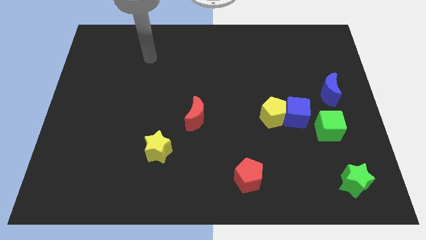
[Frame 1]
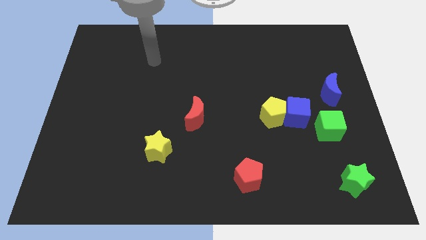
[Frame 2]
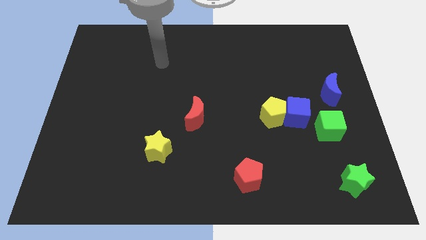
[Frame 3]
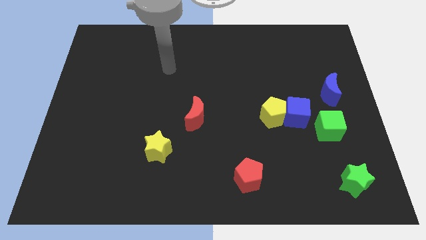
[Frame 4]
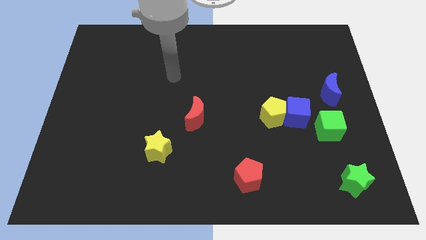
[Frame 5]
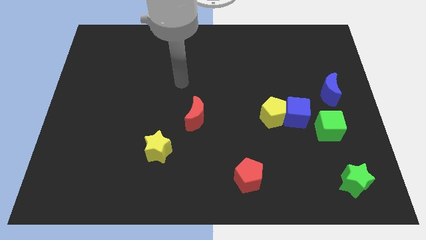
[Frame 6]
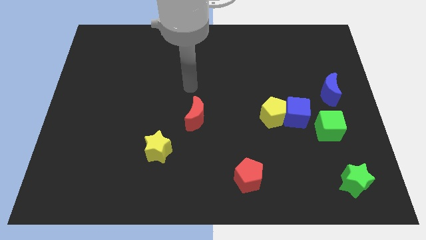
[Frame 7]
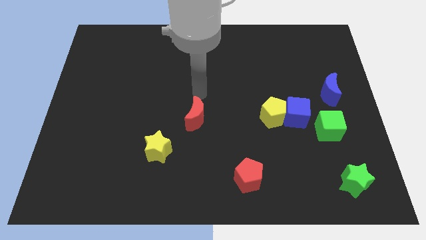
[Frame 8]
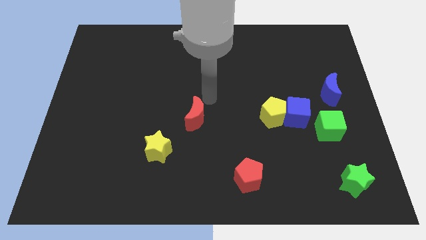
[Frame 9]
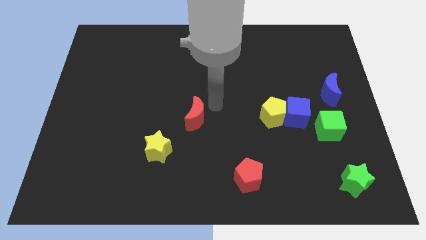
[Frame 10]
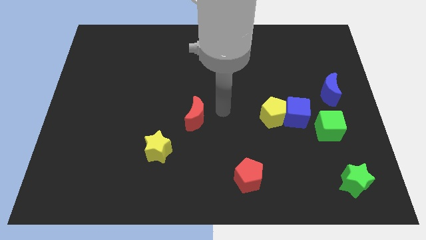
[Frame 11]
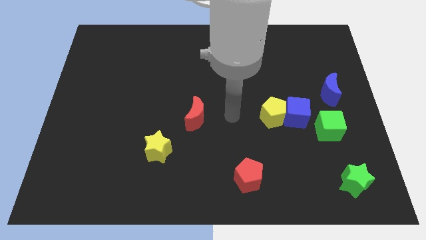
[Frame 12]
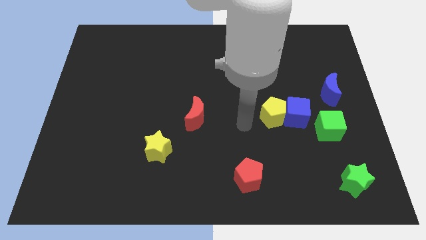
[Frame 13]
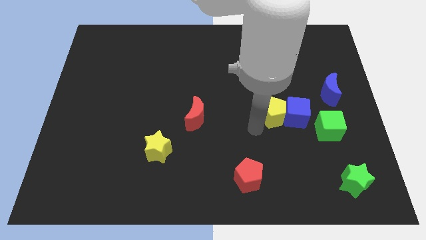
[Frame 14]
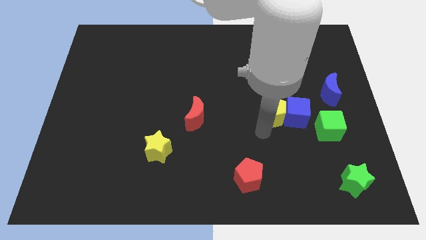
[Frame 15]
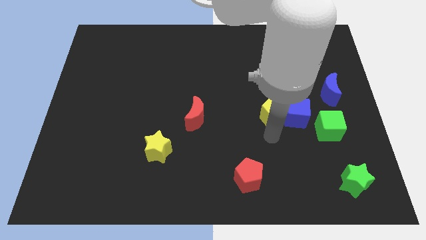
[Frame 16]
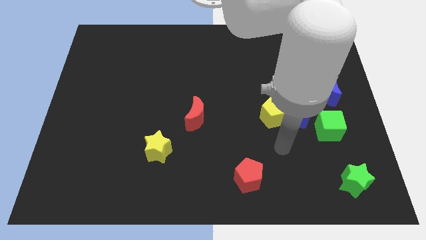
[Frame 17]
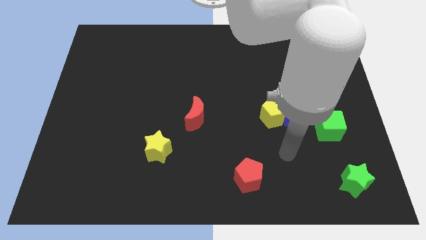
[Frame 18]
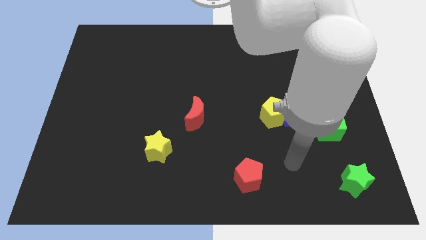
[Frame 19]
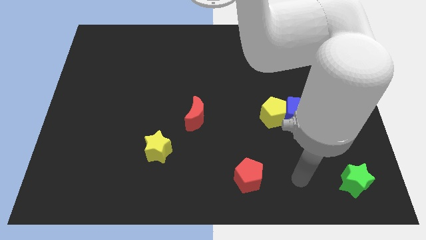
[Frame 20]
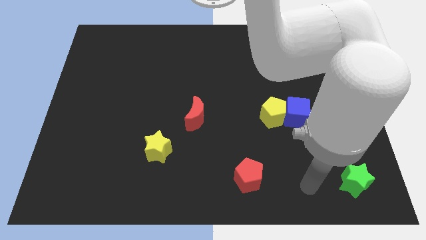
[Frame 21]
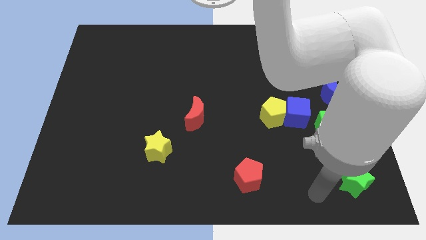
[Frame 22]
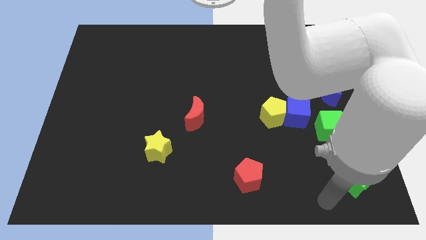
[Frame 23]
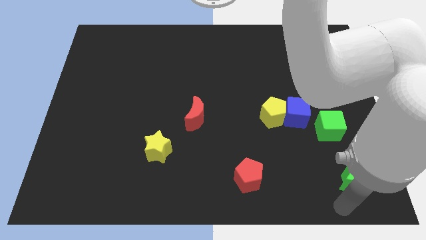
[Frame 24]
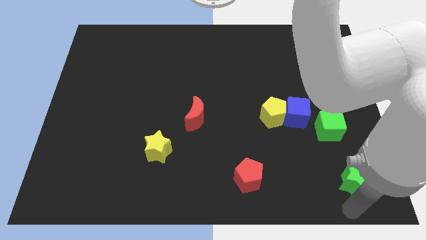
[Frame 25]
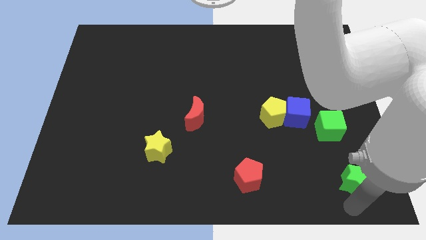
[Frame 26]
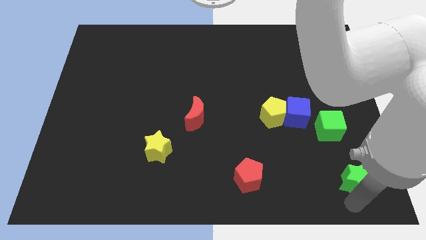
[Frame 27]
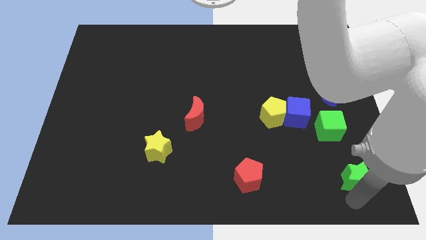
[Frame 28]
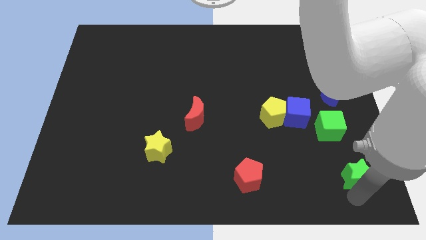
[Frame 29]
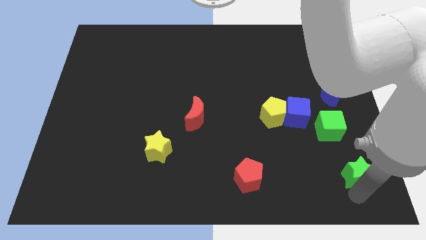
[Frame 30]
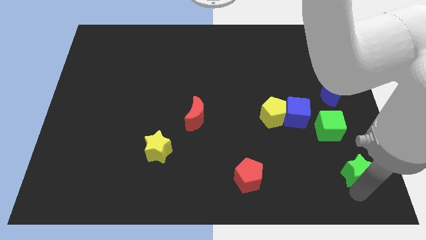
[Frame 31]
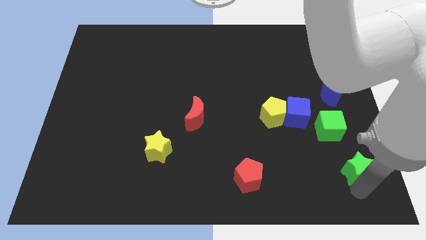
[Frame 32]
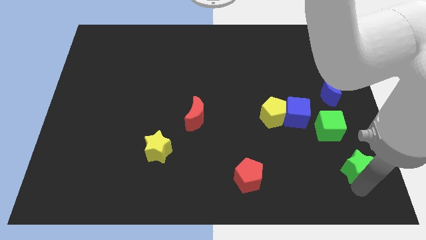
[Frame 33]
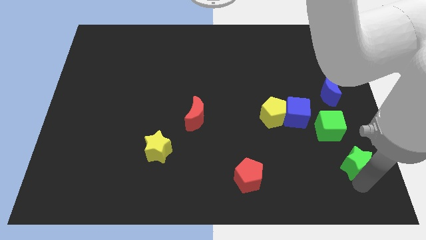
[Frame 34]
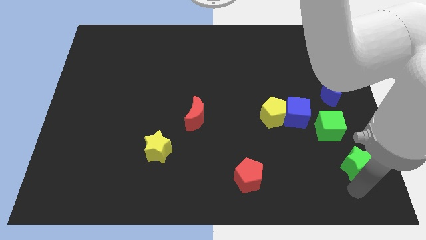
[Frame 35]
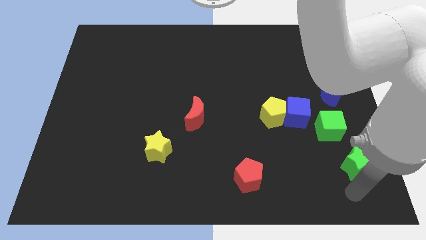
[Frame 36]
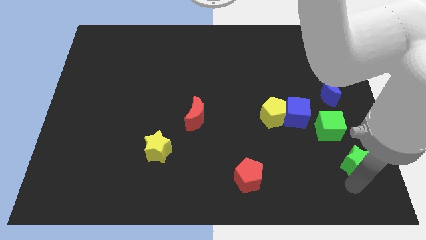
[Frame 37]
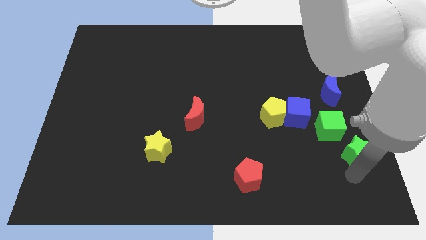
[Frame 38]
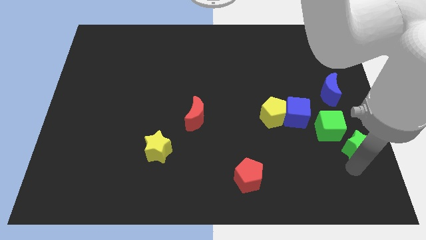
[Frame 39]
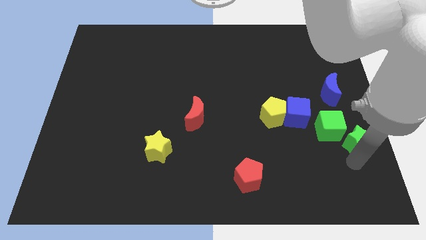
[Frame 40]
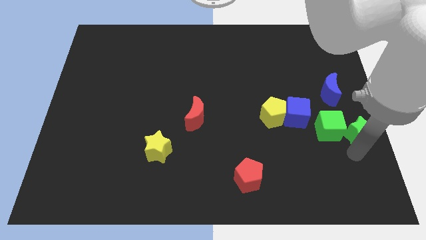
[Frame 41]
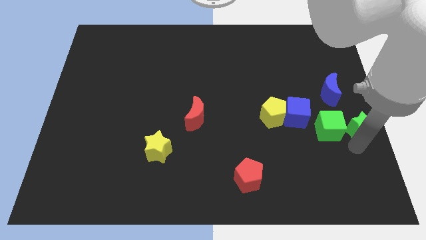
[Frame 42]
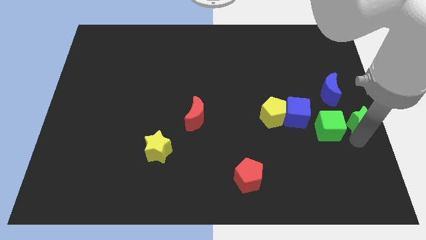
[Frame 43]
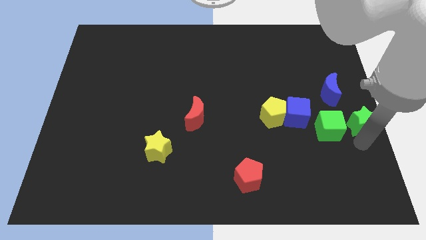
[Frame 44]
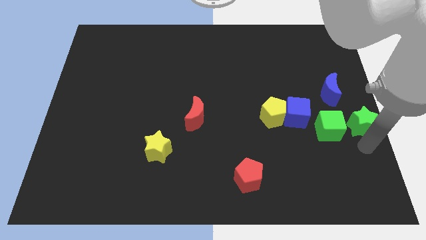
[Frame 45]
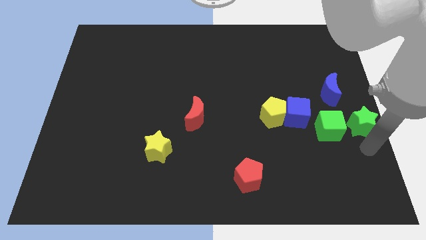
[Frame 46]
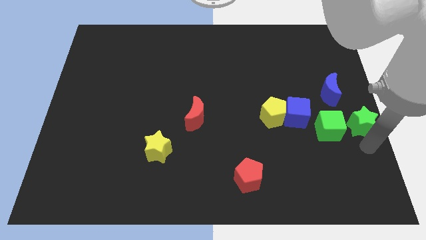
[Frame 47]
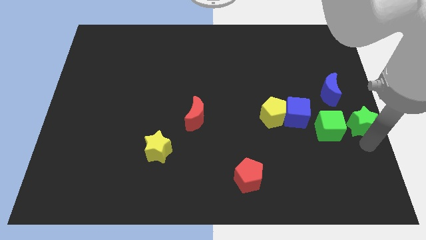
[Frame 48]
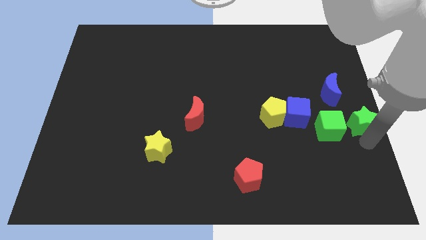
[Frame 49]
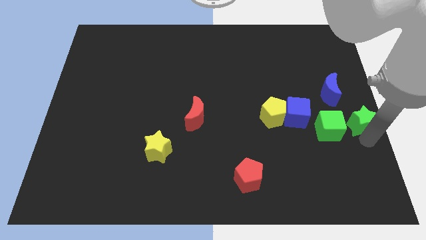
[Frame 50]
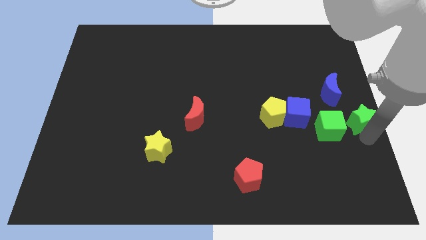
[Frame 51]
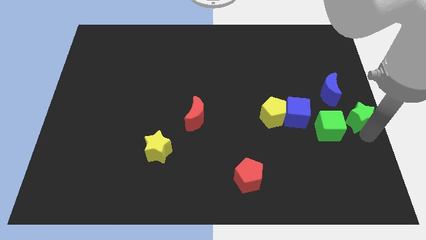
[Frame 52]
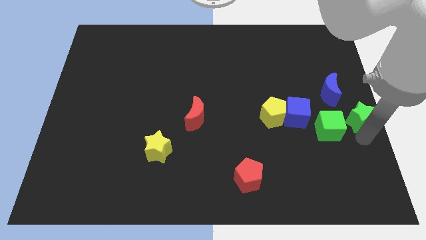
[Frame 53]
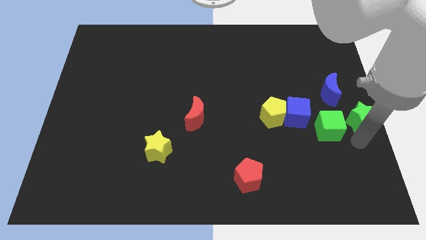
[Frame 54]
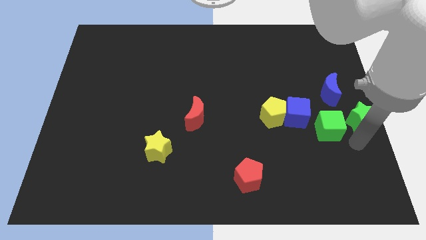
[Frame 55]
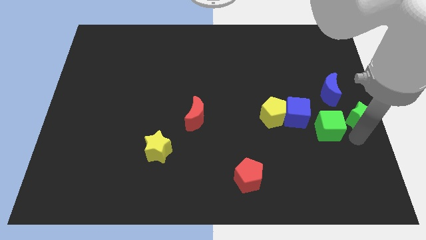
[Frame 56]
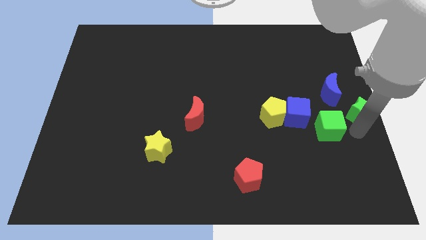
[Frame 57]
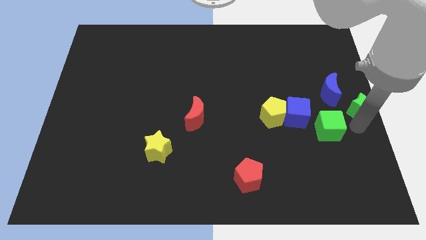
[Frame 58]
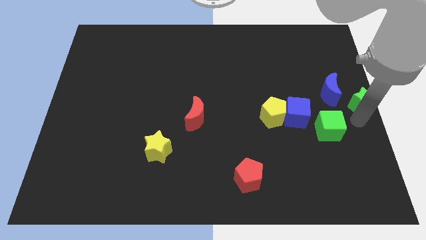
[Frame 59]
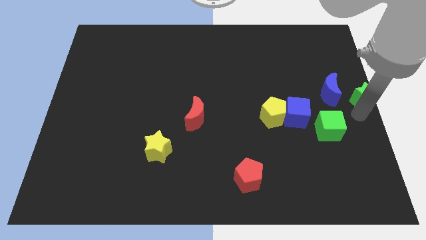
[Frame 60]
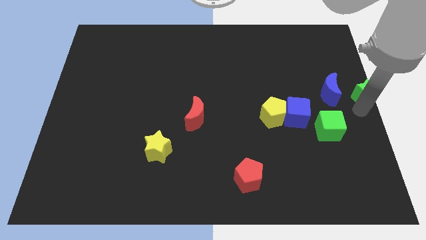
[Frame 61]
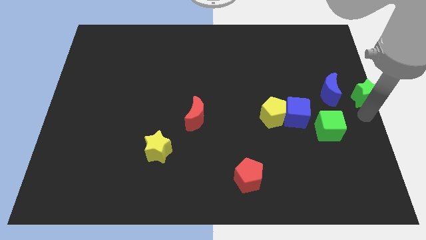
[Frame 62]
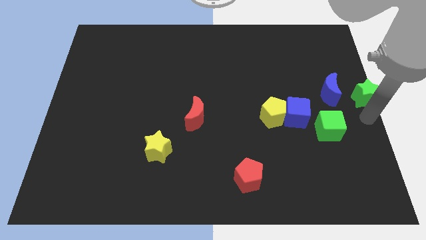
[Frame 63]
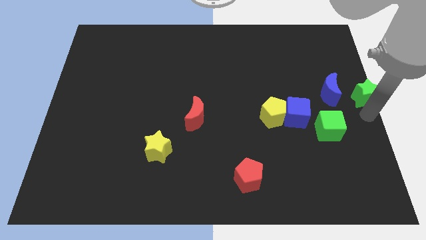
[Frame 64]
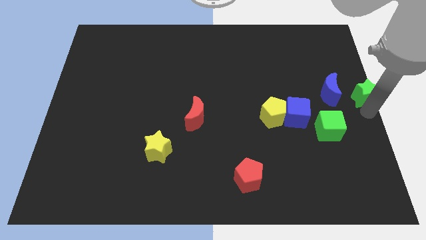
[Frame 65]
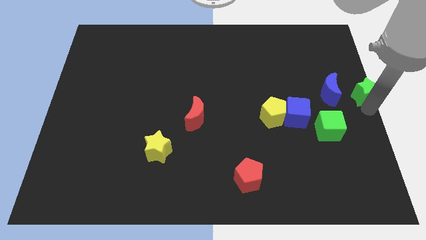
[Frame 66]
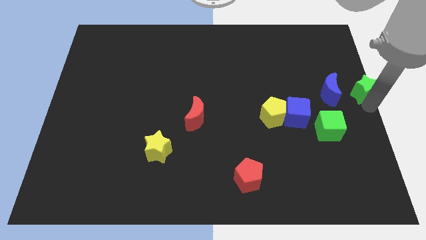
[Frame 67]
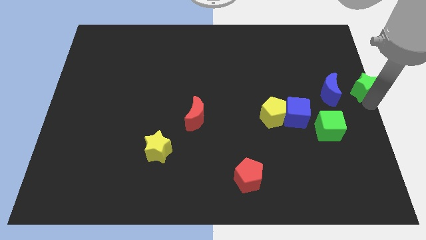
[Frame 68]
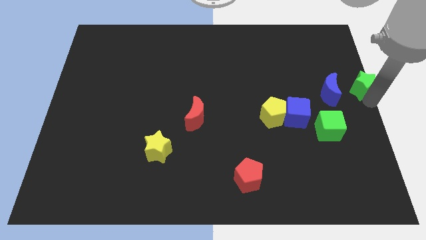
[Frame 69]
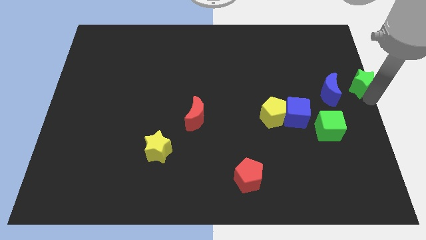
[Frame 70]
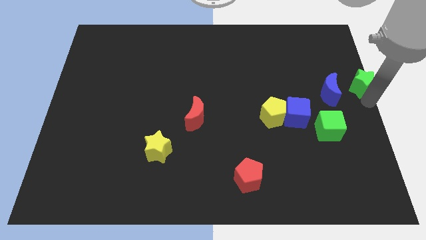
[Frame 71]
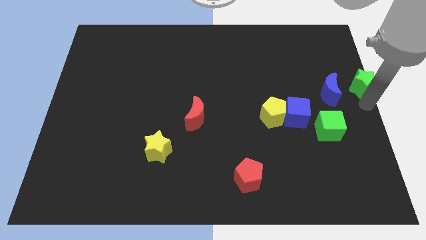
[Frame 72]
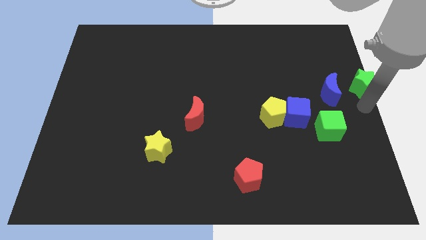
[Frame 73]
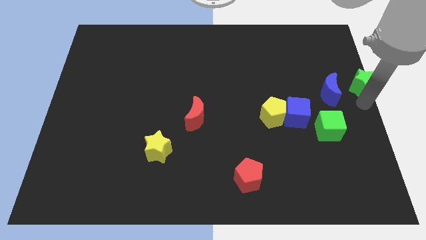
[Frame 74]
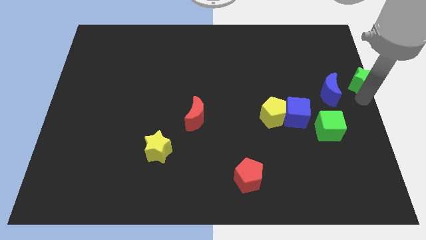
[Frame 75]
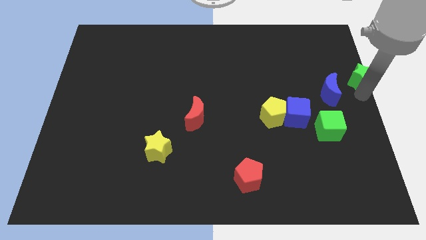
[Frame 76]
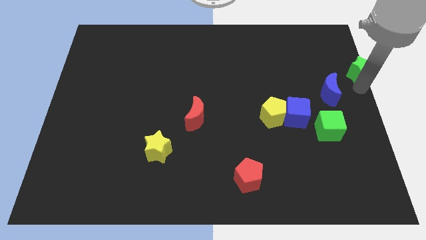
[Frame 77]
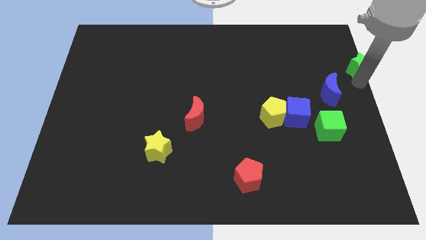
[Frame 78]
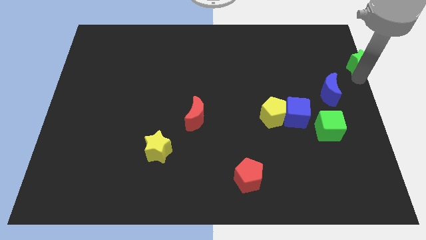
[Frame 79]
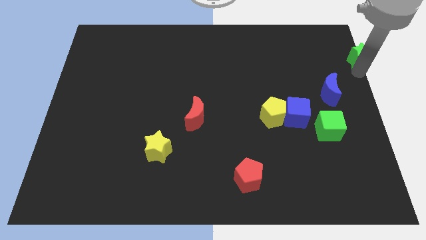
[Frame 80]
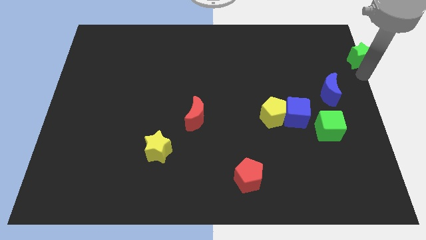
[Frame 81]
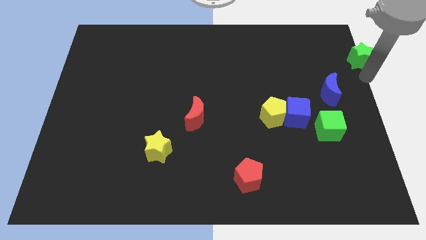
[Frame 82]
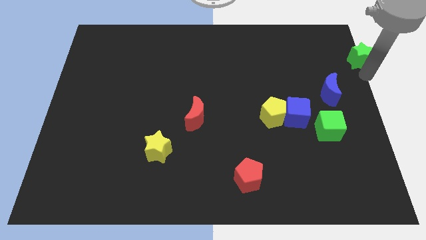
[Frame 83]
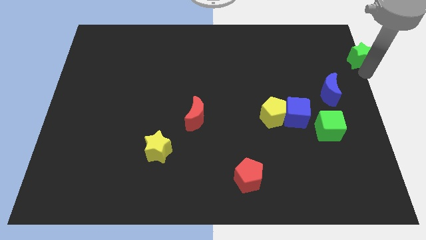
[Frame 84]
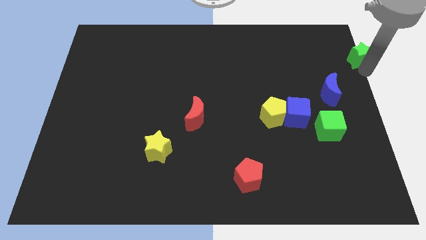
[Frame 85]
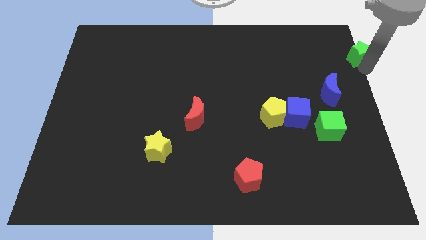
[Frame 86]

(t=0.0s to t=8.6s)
push the green star to the top right corner
